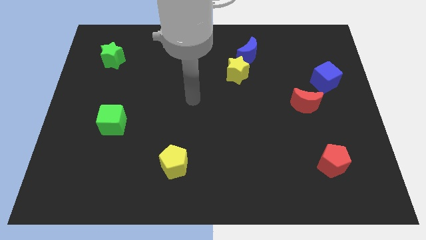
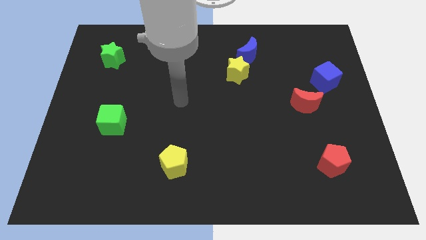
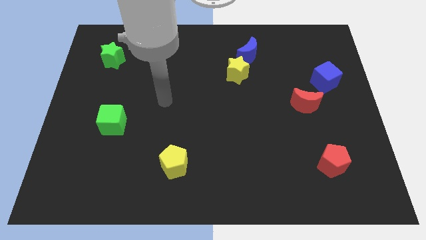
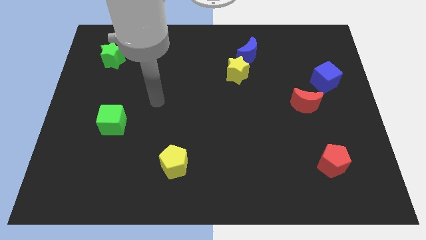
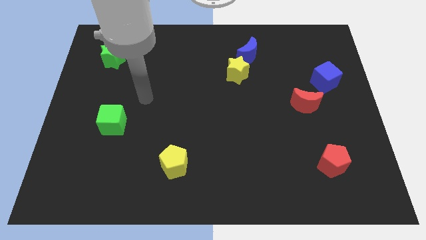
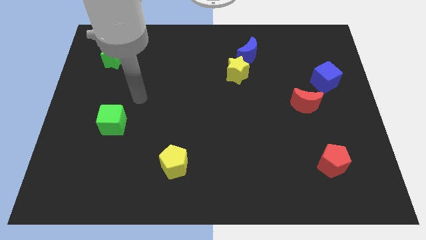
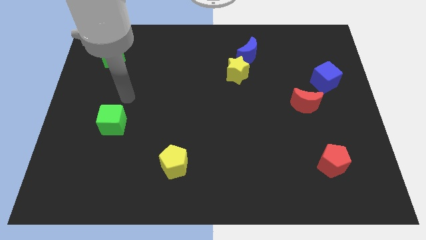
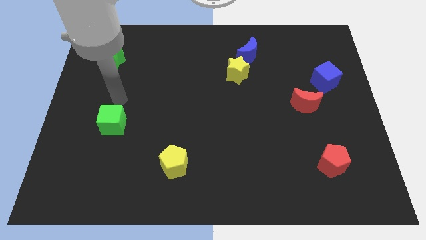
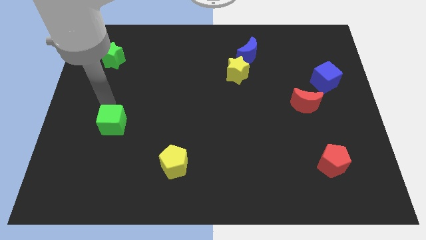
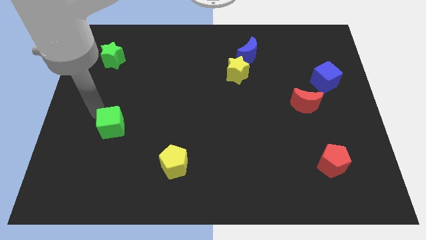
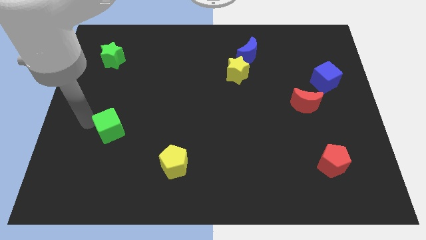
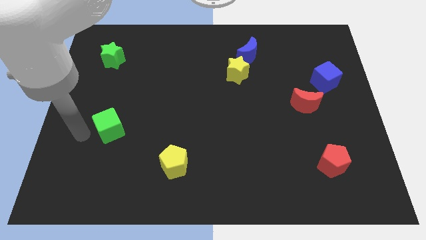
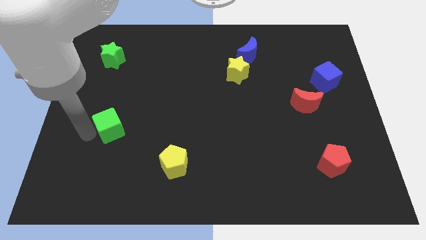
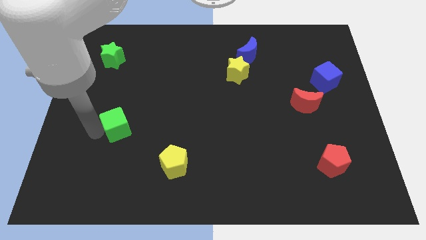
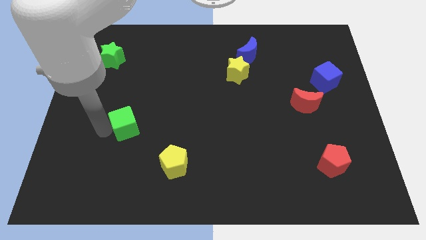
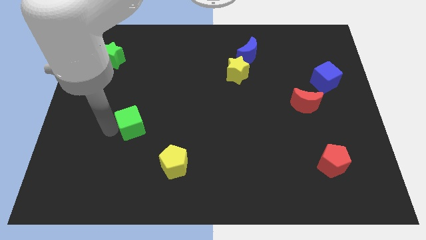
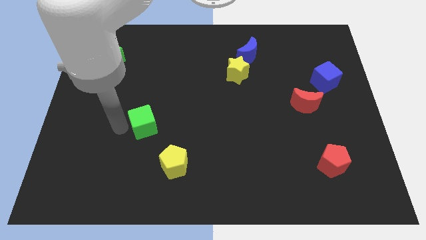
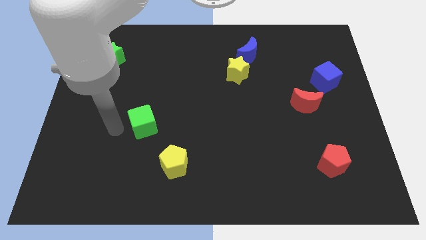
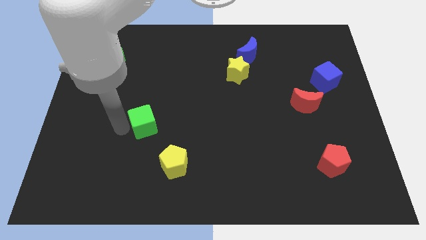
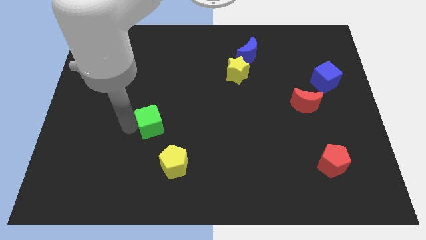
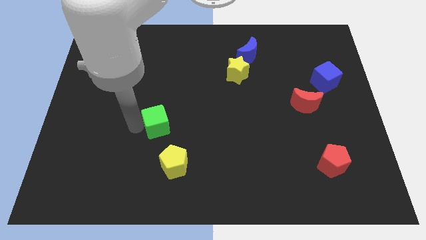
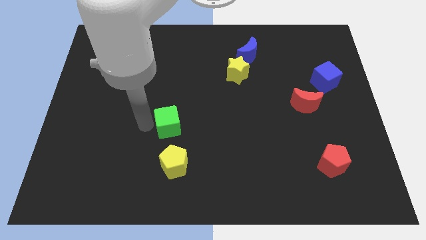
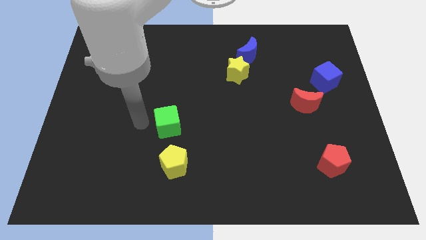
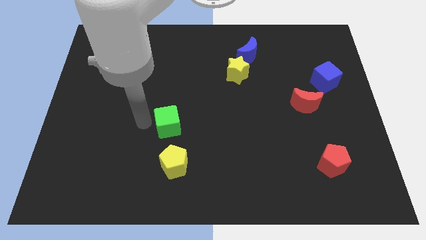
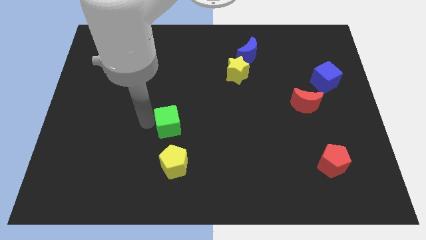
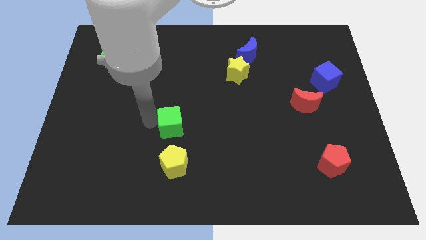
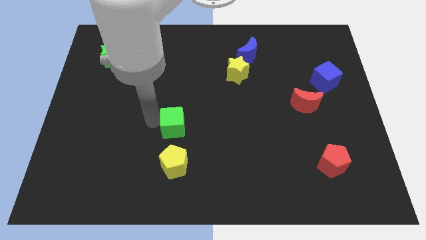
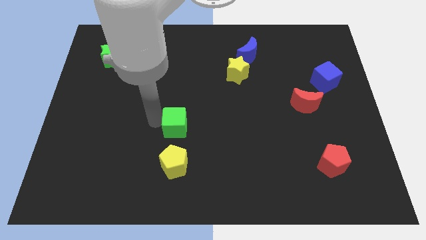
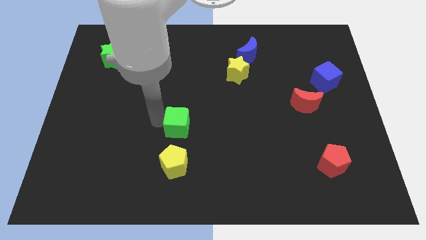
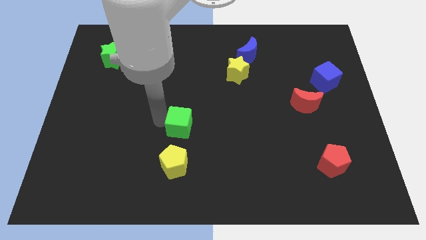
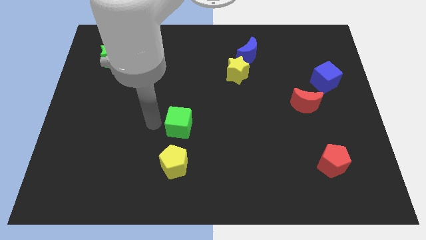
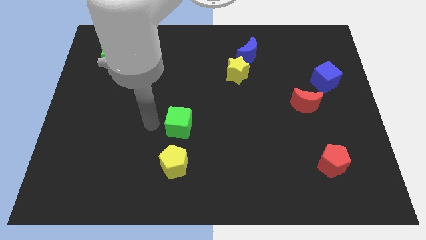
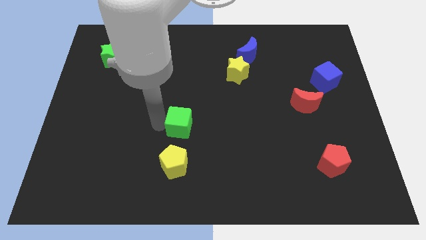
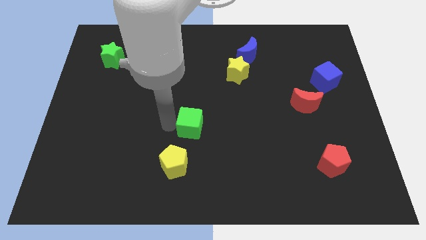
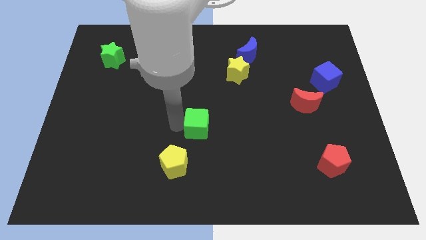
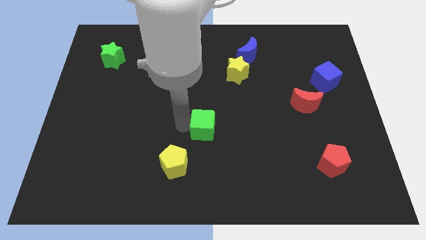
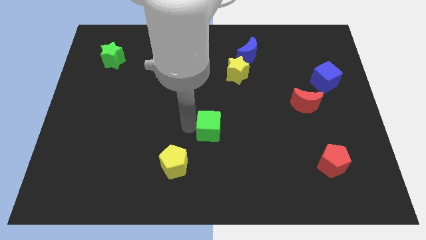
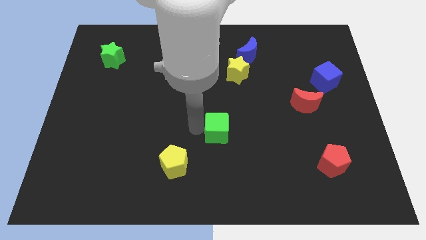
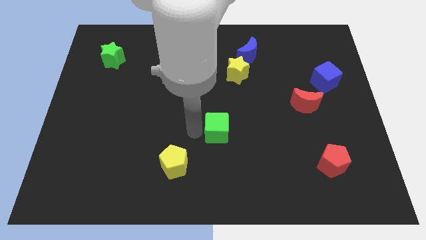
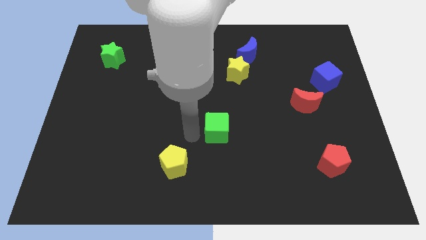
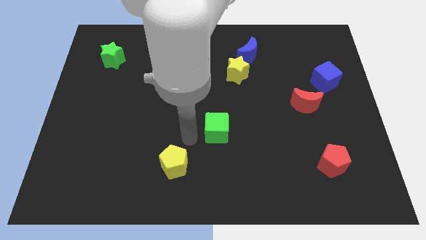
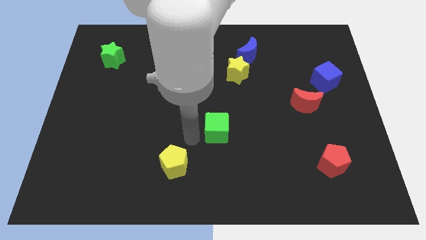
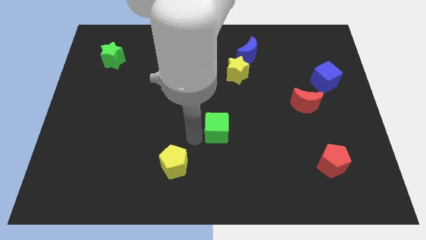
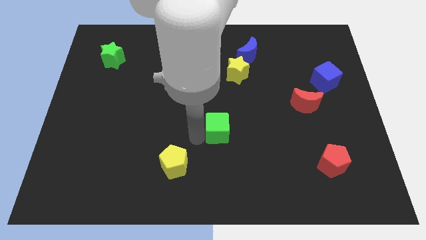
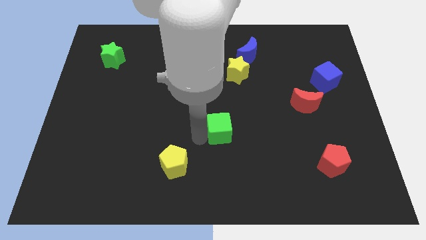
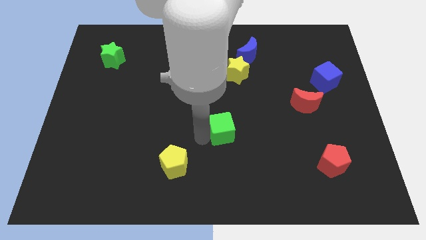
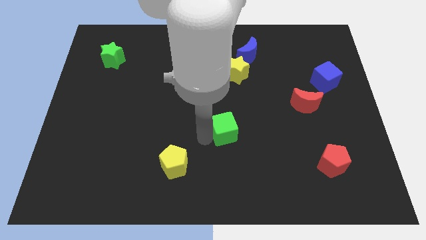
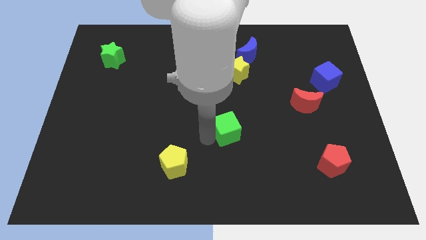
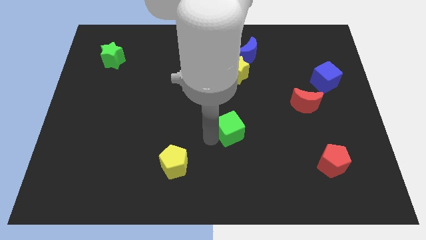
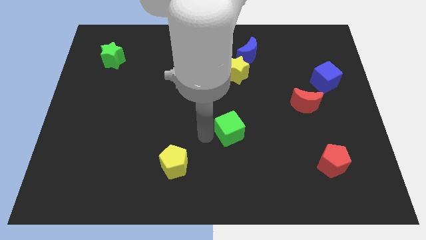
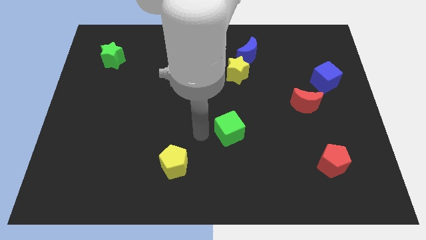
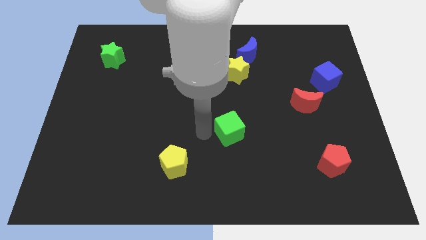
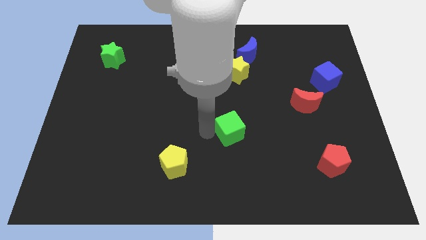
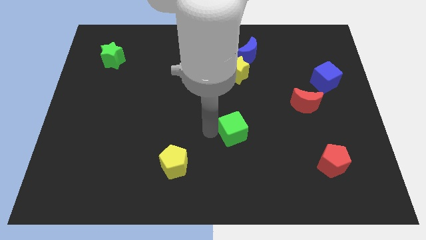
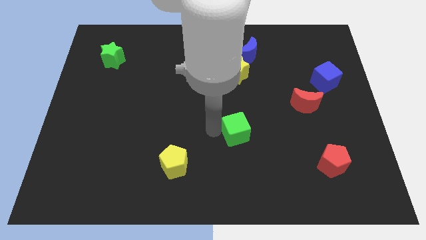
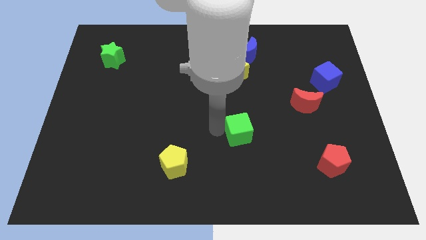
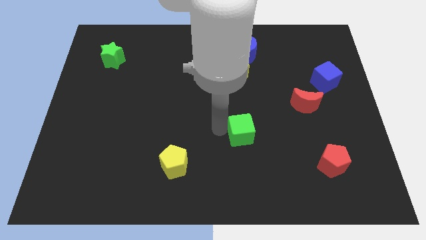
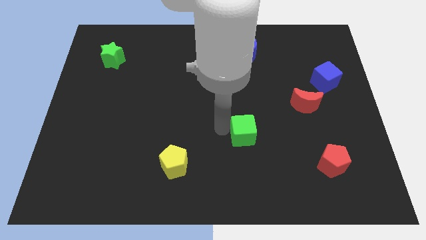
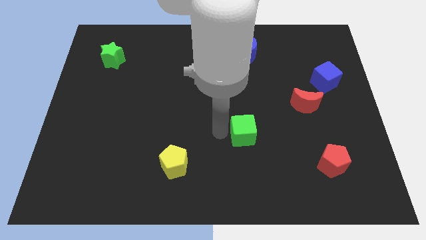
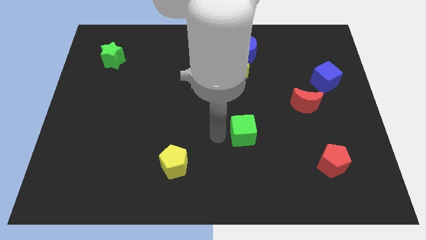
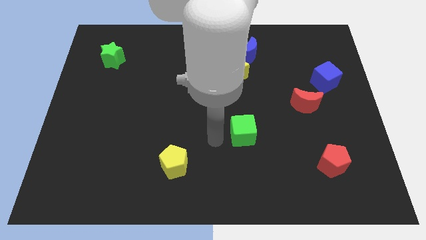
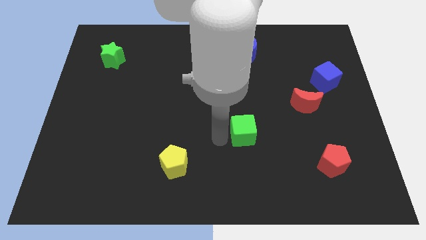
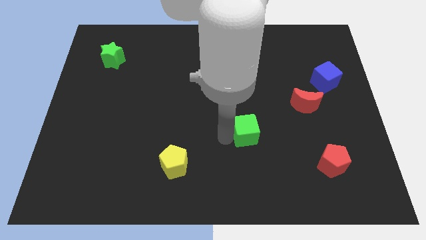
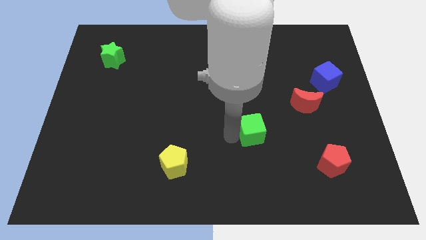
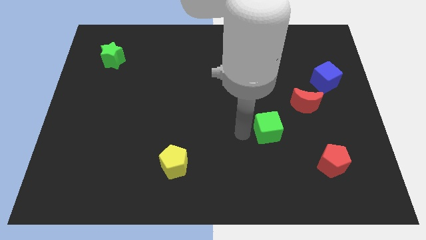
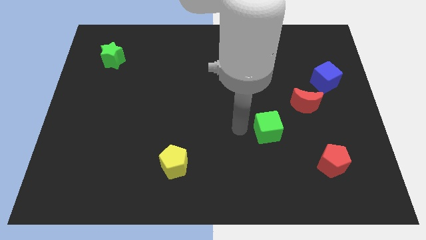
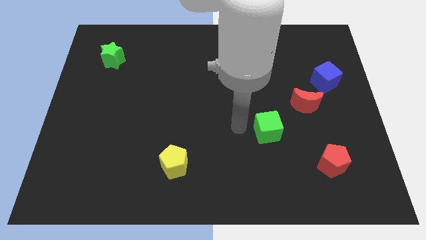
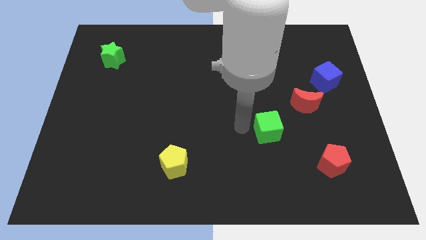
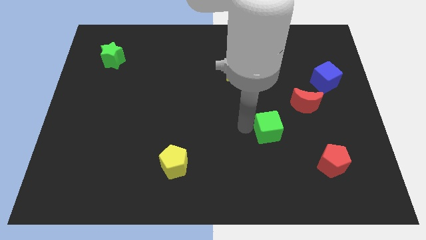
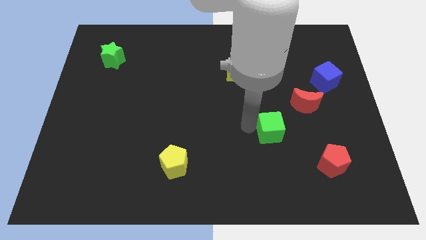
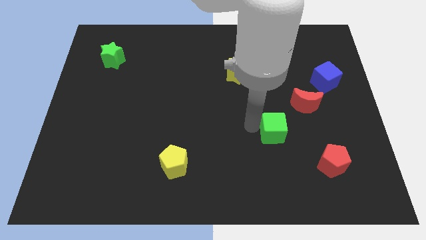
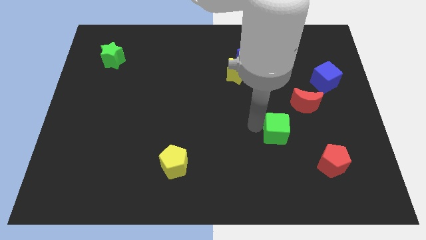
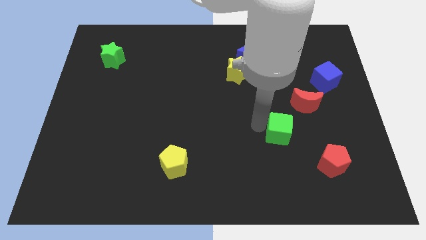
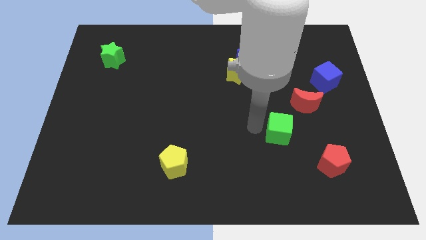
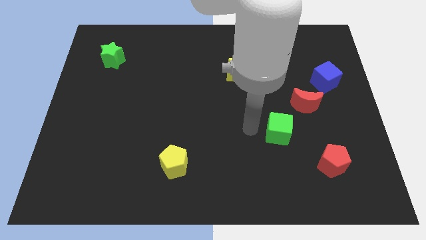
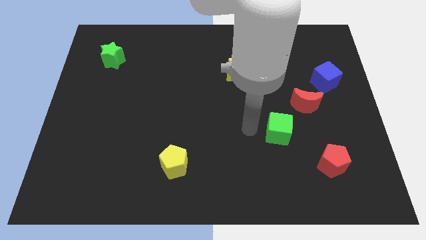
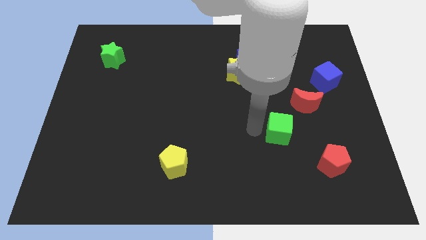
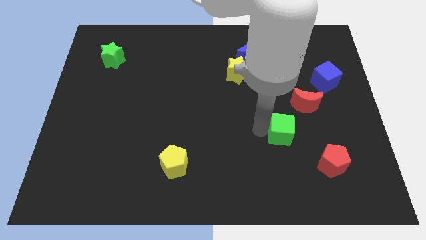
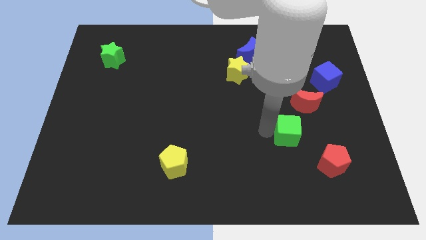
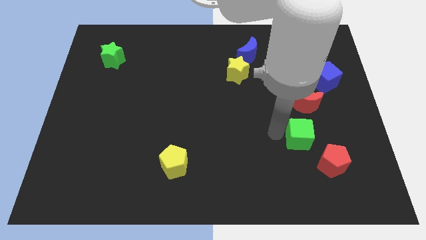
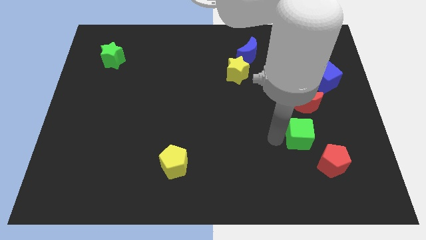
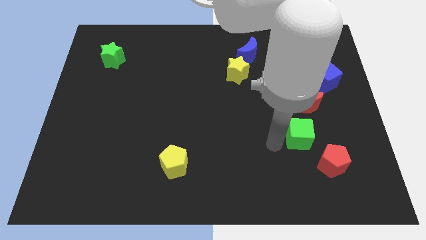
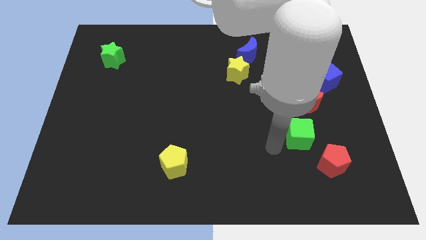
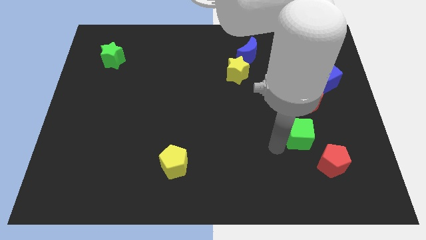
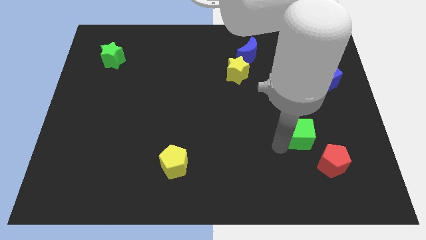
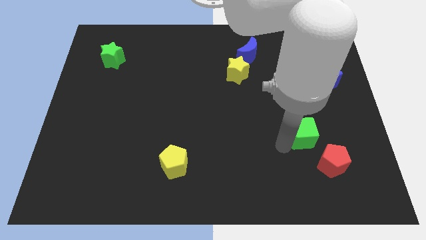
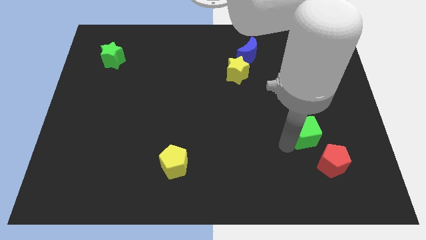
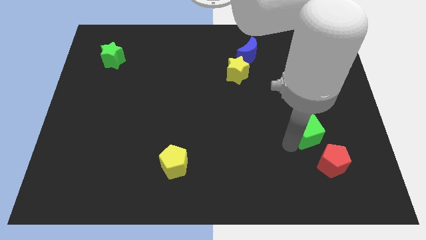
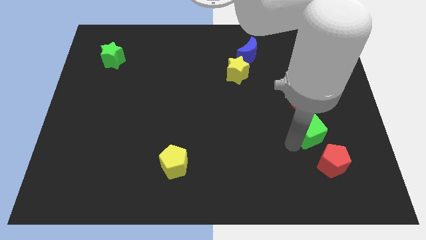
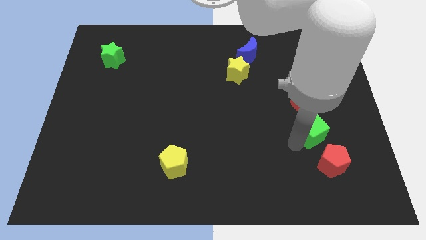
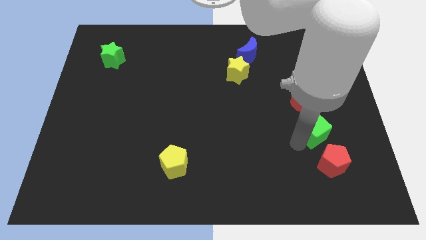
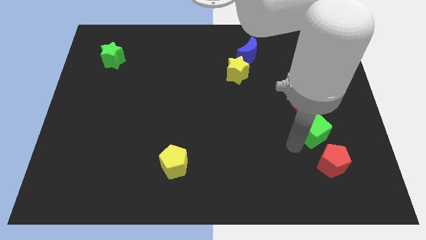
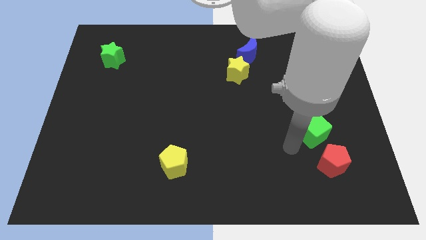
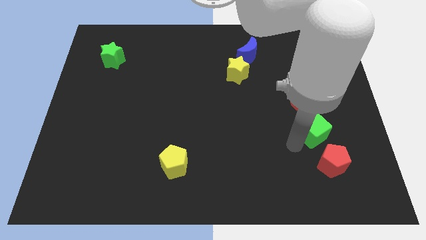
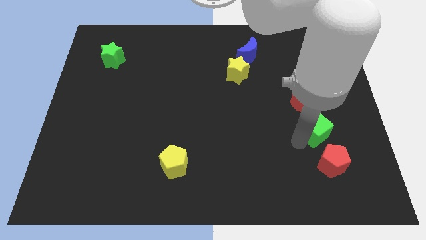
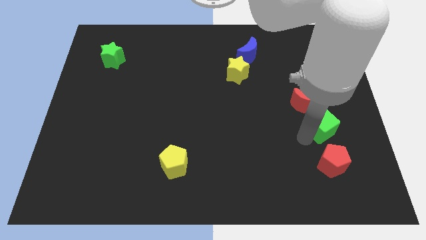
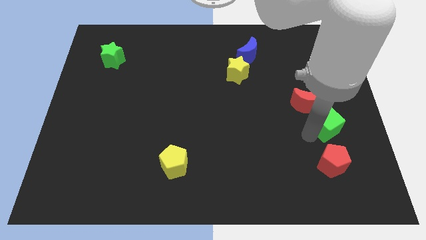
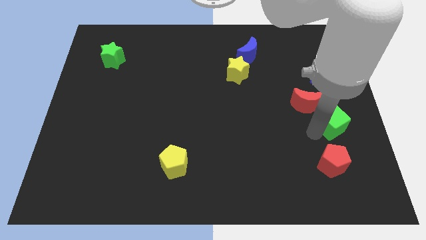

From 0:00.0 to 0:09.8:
move the green cube to the right side
